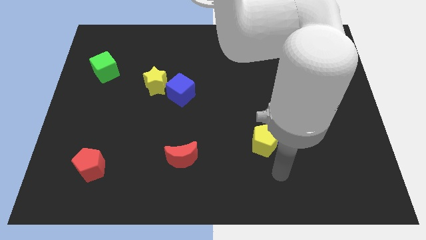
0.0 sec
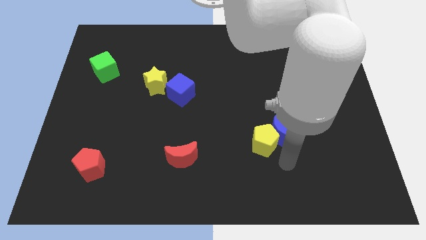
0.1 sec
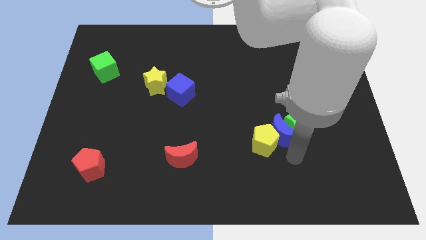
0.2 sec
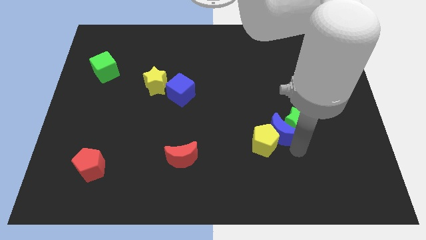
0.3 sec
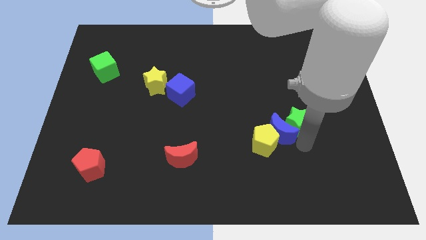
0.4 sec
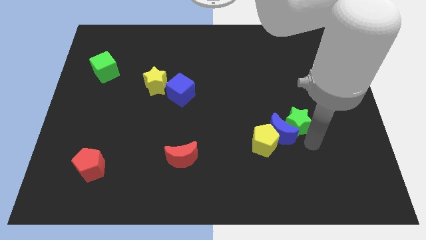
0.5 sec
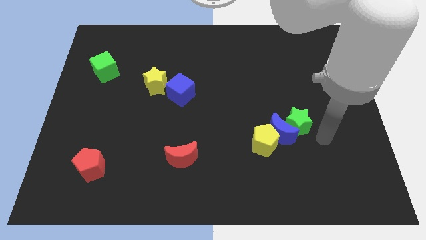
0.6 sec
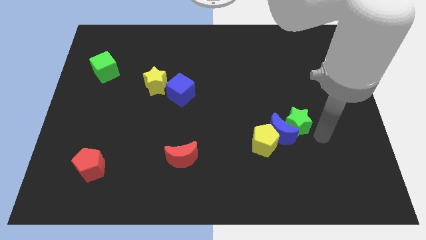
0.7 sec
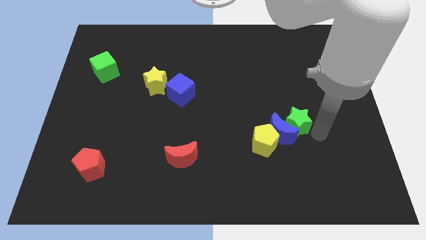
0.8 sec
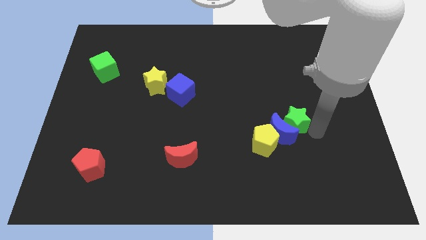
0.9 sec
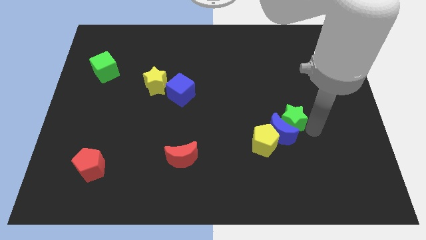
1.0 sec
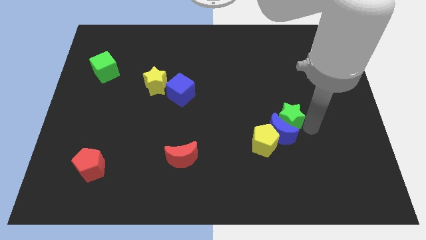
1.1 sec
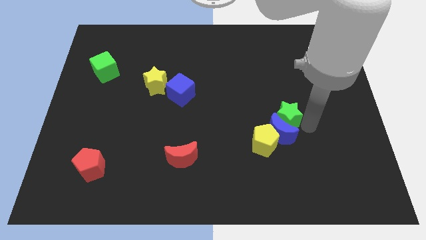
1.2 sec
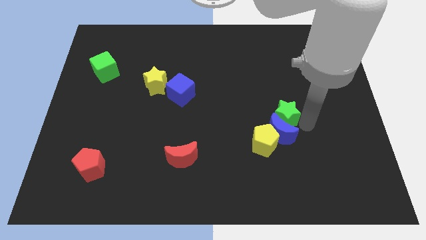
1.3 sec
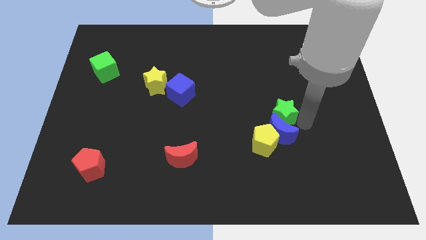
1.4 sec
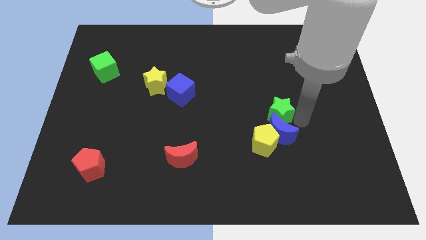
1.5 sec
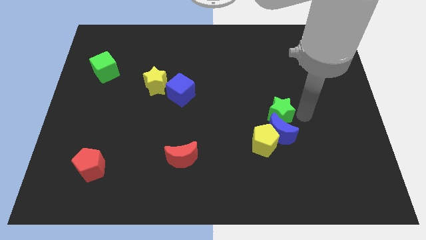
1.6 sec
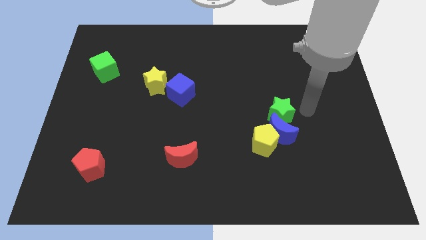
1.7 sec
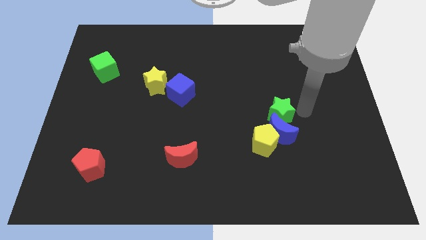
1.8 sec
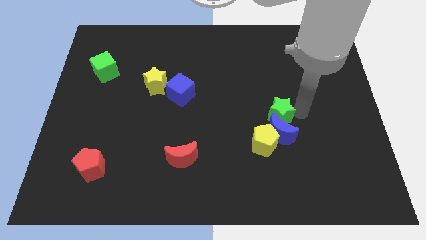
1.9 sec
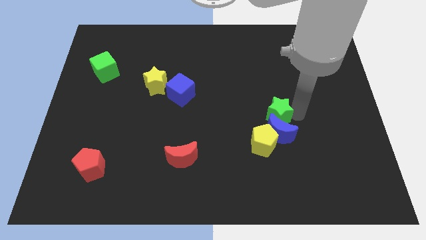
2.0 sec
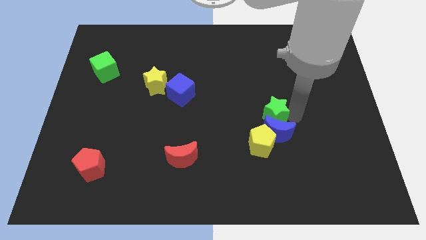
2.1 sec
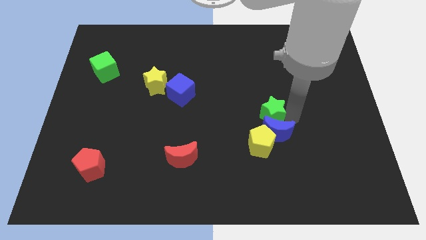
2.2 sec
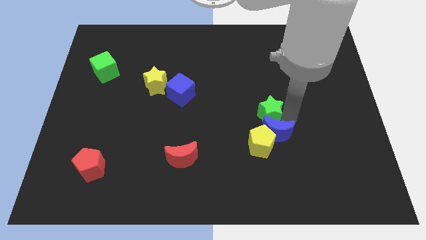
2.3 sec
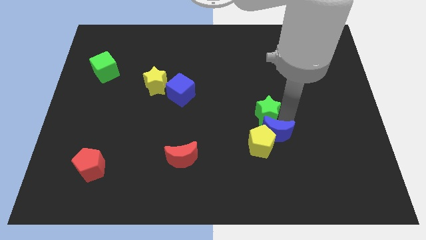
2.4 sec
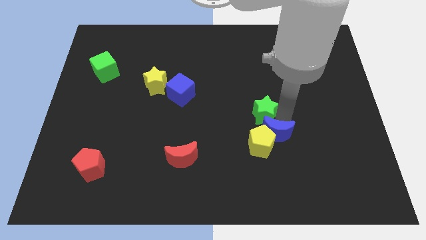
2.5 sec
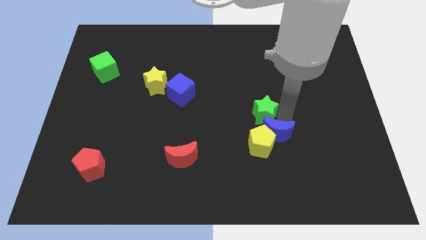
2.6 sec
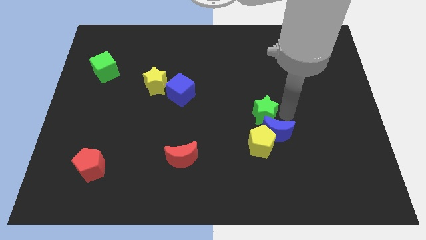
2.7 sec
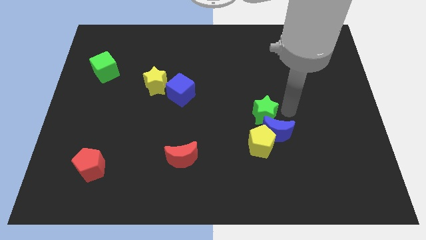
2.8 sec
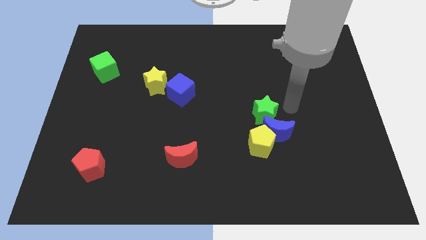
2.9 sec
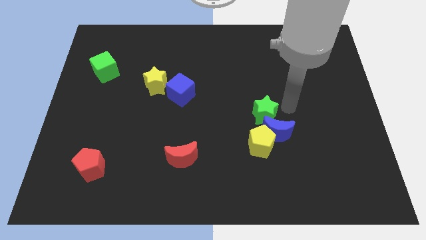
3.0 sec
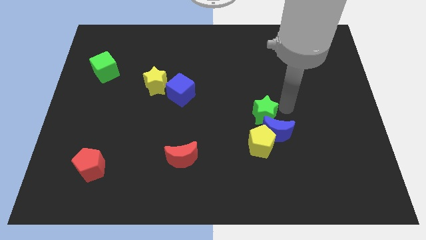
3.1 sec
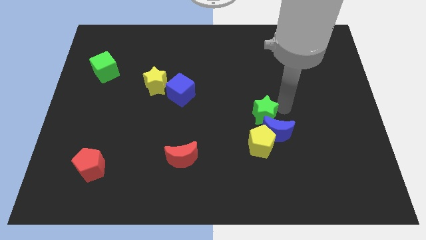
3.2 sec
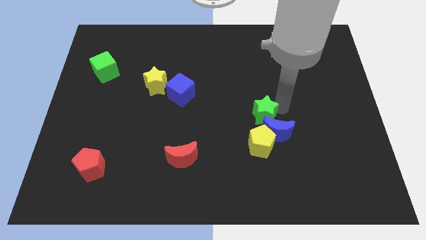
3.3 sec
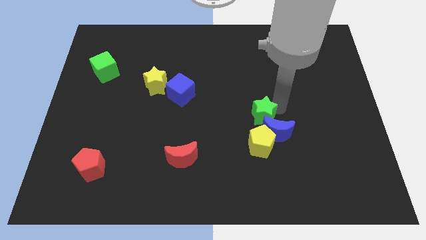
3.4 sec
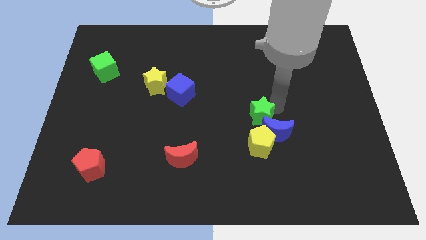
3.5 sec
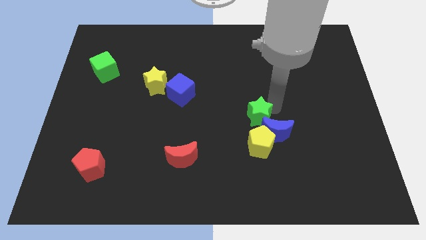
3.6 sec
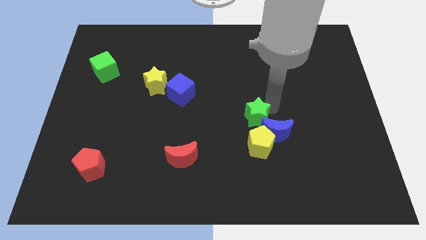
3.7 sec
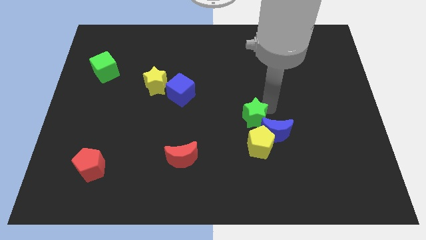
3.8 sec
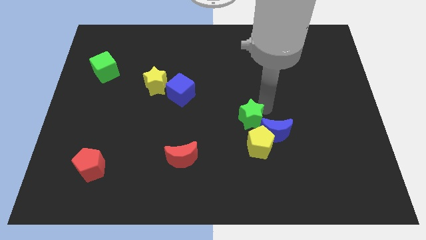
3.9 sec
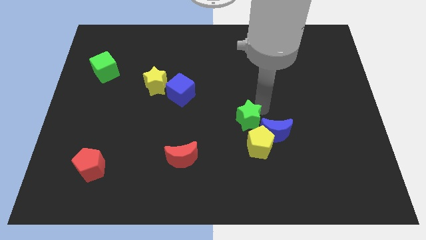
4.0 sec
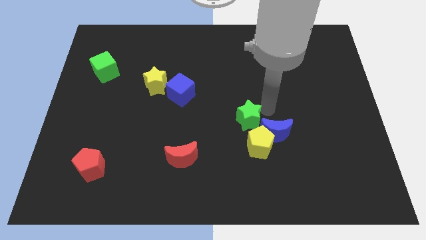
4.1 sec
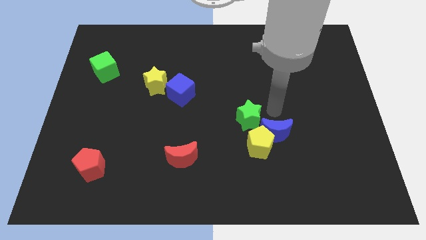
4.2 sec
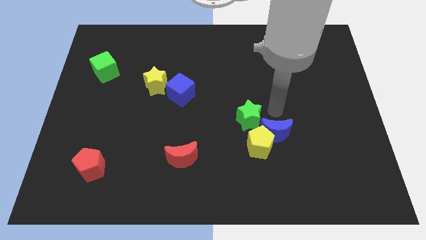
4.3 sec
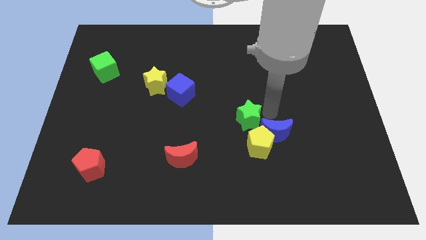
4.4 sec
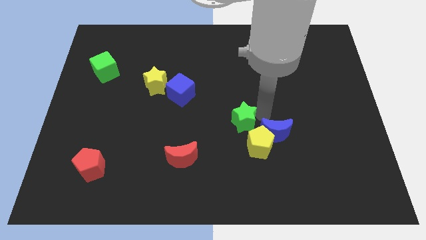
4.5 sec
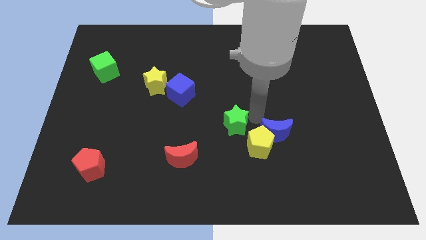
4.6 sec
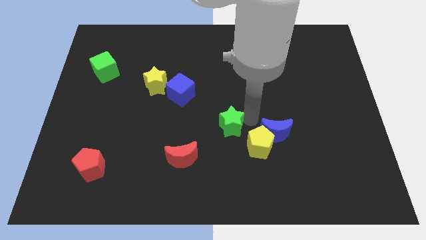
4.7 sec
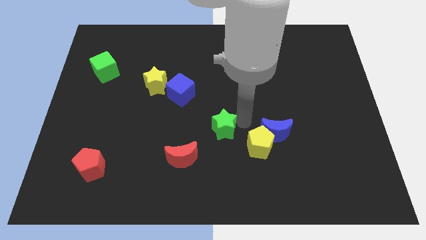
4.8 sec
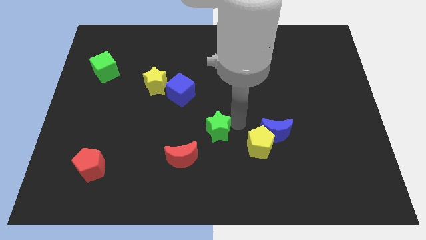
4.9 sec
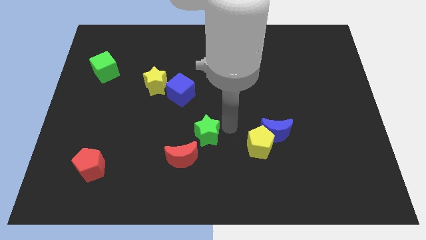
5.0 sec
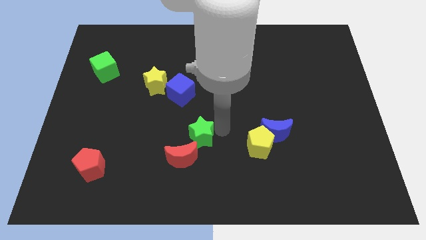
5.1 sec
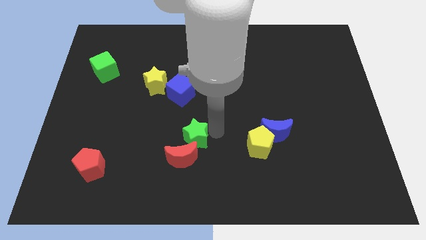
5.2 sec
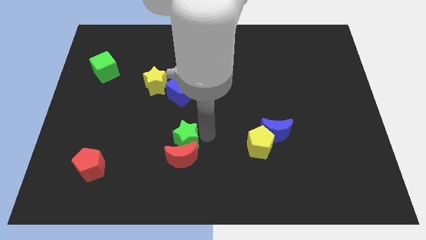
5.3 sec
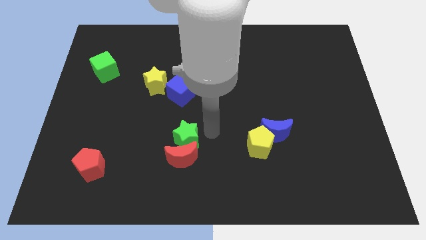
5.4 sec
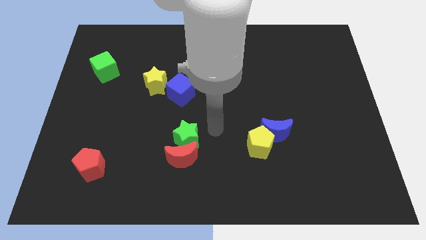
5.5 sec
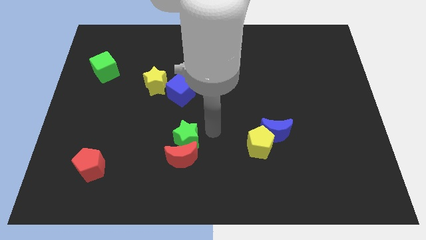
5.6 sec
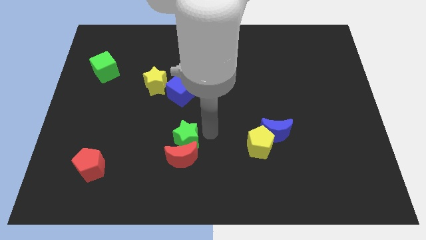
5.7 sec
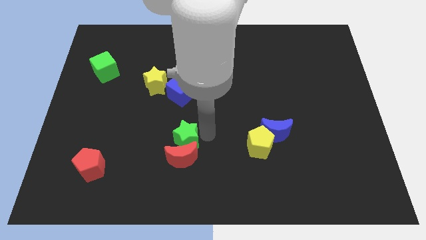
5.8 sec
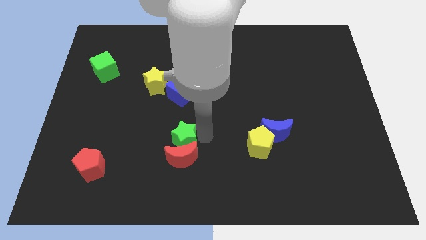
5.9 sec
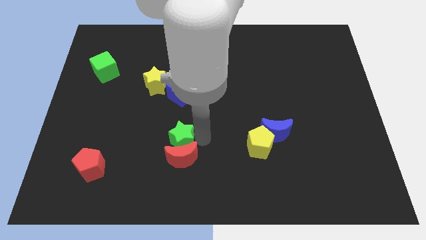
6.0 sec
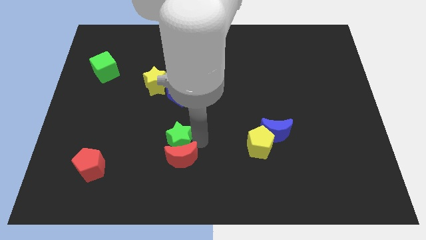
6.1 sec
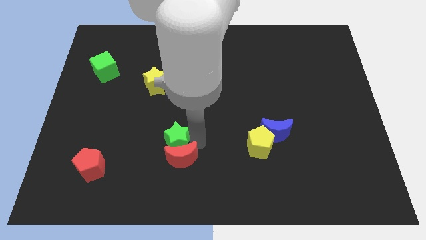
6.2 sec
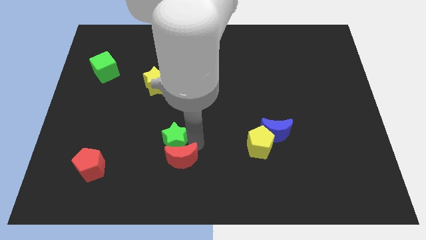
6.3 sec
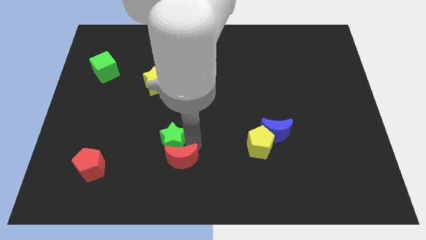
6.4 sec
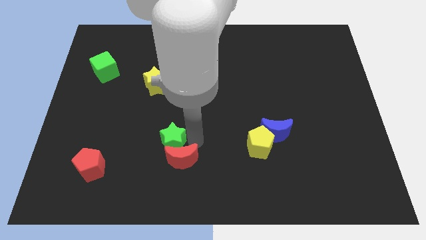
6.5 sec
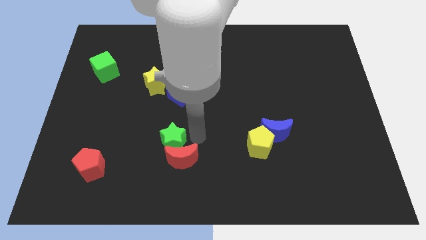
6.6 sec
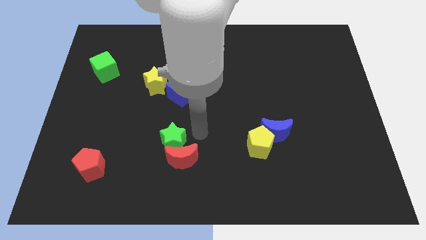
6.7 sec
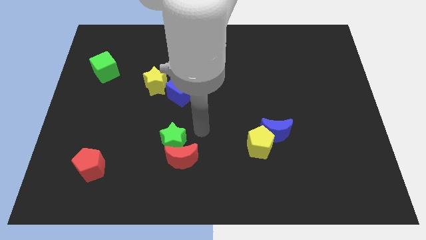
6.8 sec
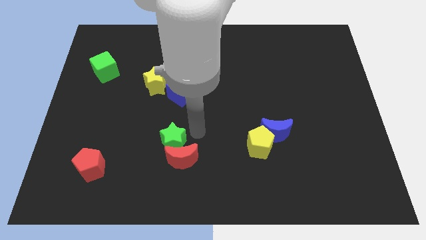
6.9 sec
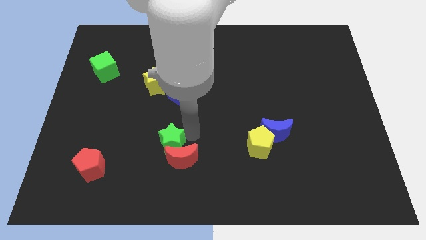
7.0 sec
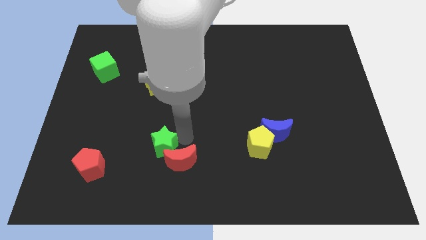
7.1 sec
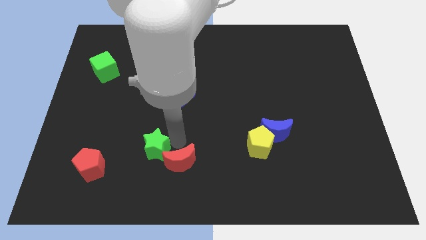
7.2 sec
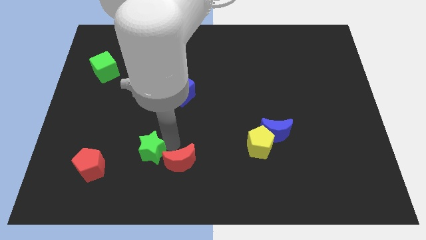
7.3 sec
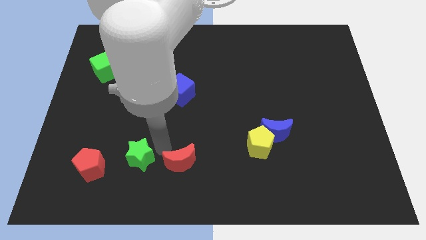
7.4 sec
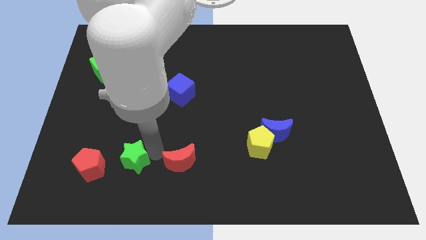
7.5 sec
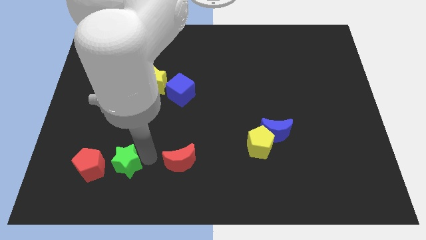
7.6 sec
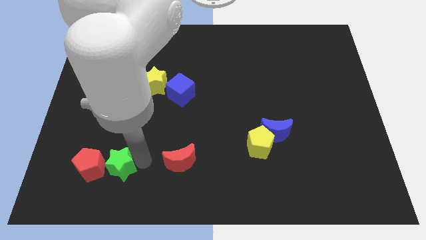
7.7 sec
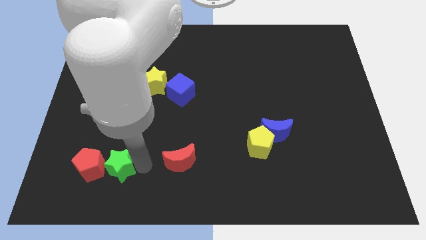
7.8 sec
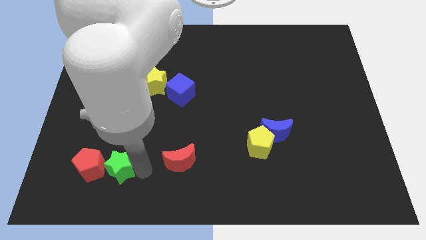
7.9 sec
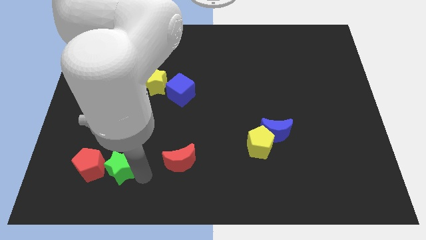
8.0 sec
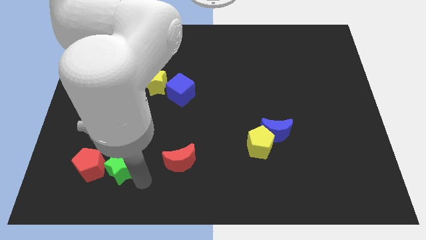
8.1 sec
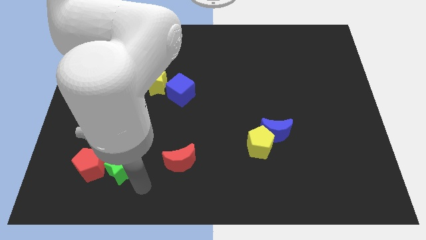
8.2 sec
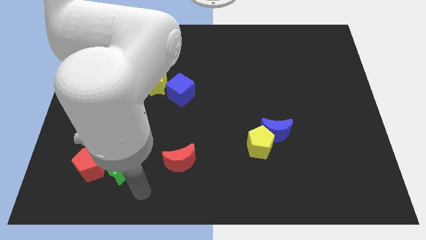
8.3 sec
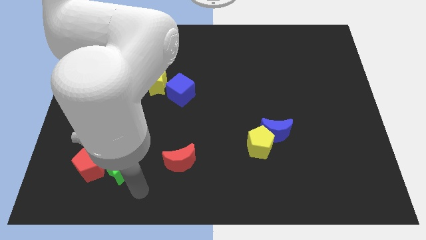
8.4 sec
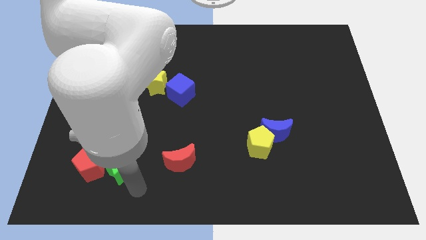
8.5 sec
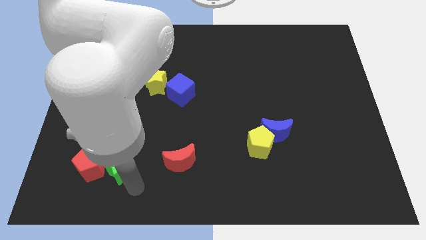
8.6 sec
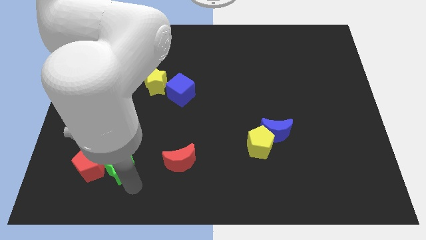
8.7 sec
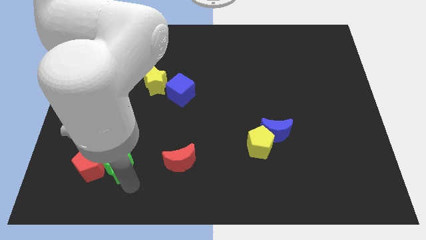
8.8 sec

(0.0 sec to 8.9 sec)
put the green star next to the red pentagon
